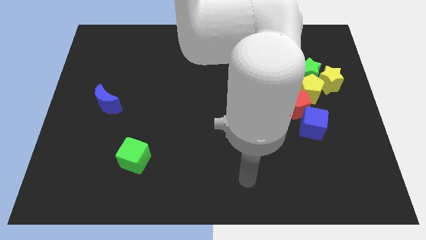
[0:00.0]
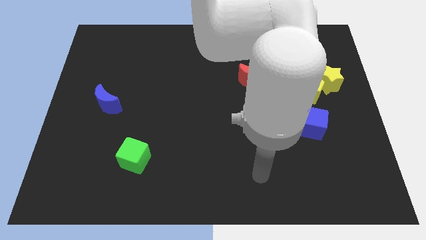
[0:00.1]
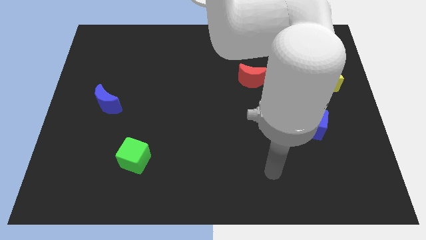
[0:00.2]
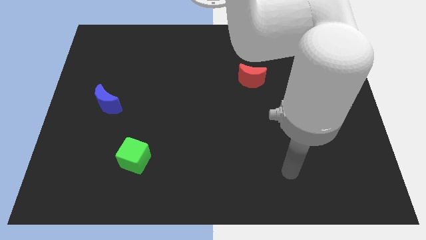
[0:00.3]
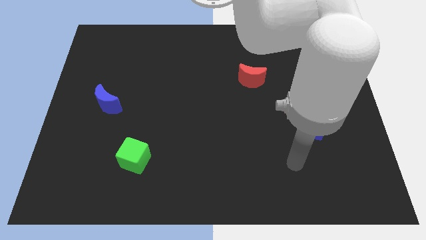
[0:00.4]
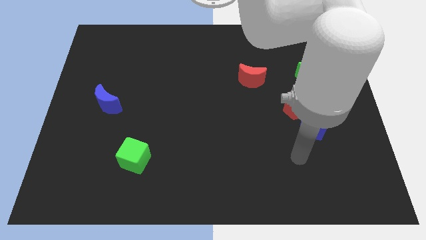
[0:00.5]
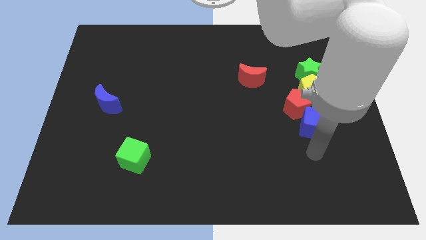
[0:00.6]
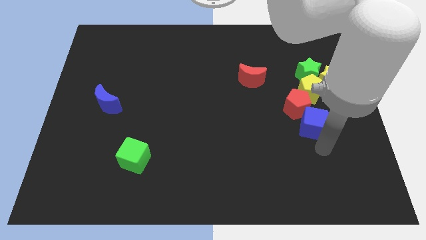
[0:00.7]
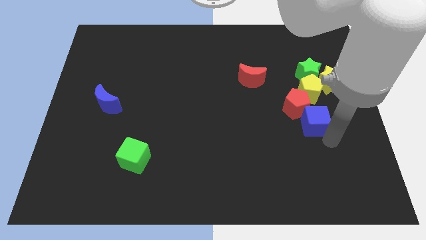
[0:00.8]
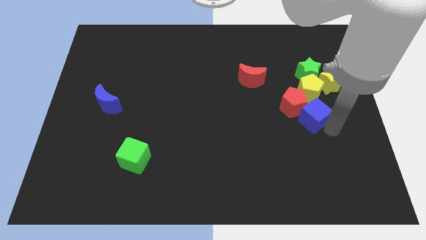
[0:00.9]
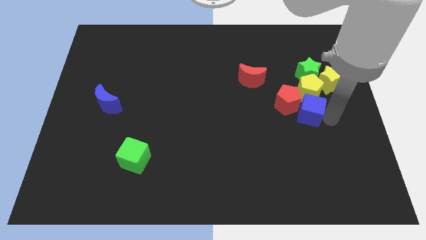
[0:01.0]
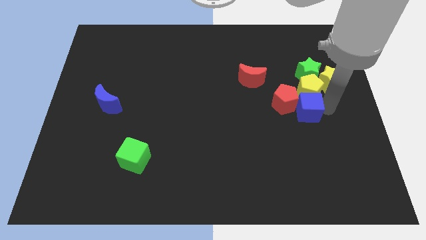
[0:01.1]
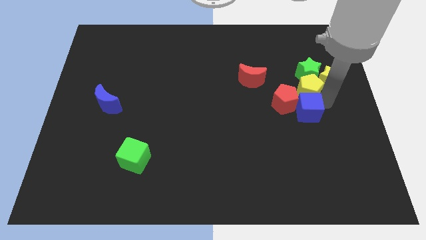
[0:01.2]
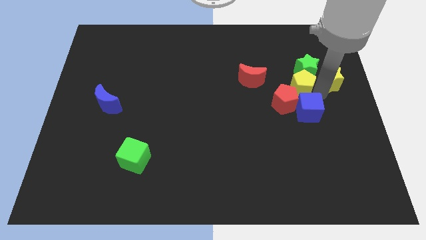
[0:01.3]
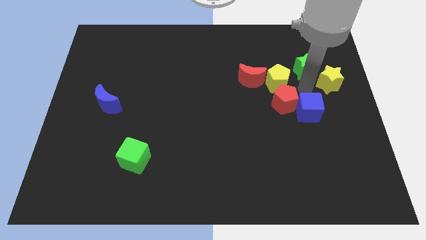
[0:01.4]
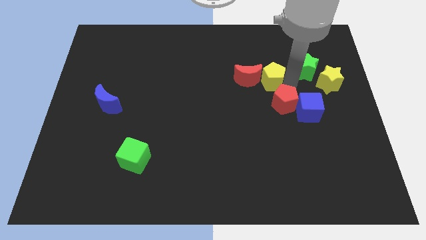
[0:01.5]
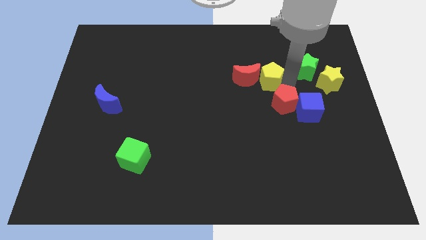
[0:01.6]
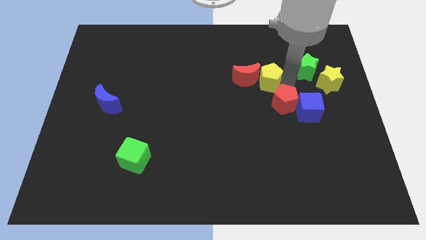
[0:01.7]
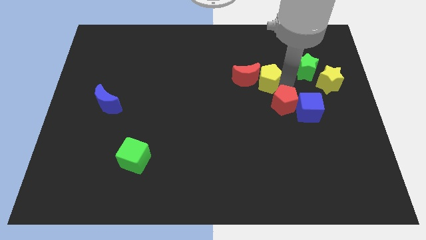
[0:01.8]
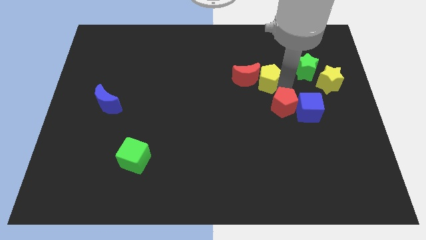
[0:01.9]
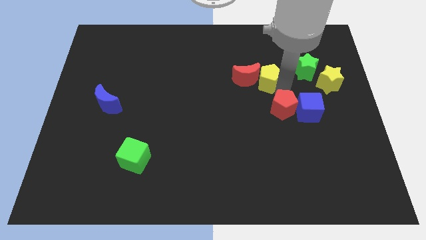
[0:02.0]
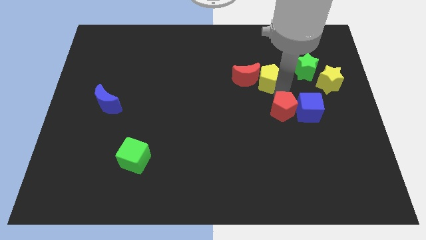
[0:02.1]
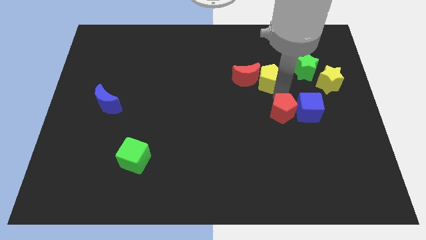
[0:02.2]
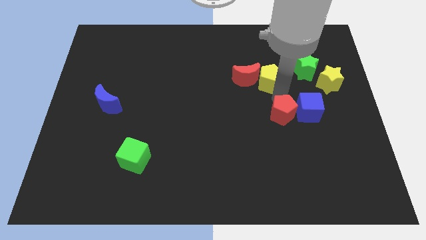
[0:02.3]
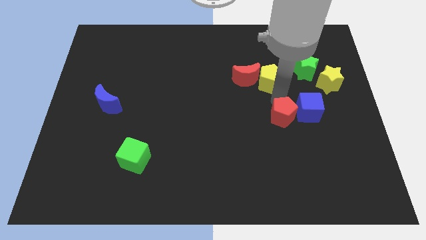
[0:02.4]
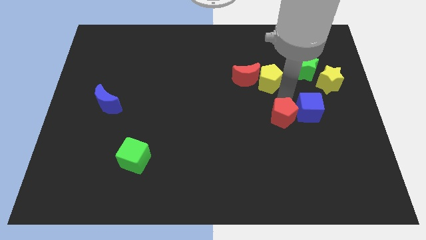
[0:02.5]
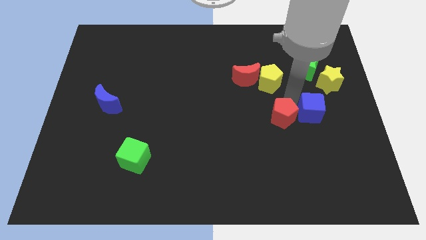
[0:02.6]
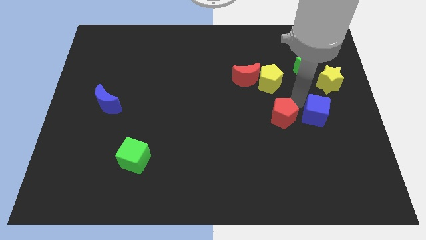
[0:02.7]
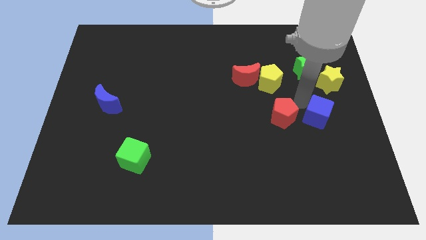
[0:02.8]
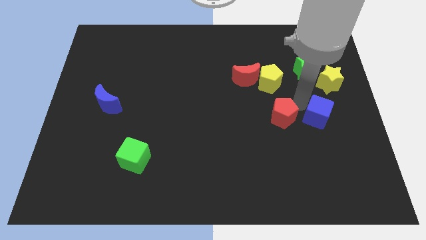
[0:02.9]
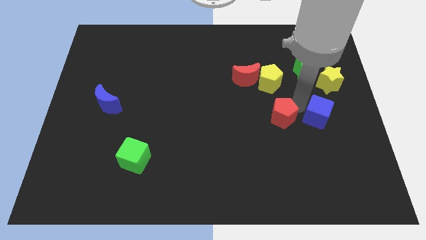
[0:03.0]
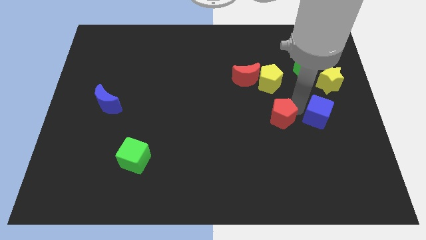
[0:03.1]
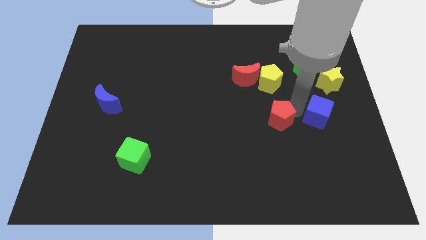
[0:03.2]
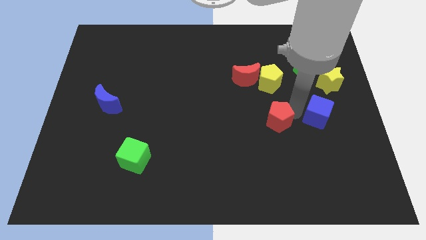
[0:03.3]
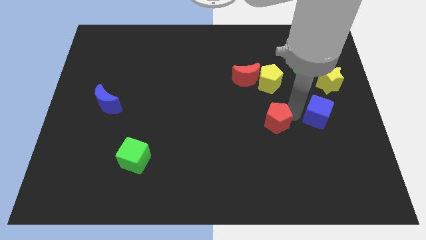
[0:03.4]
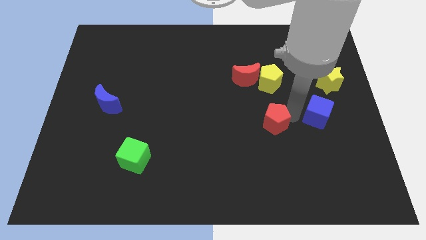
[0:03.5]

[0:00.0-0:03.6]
slide the red pentagon somewhat downwards and to the left

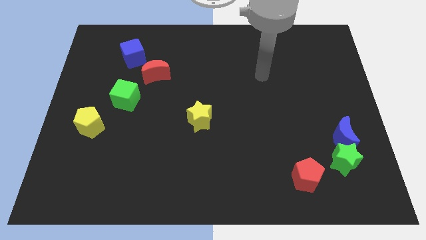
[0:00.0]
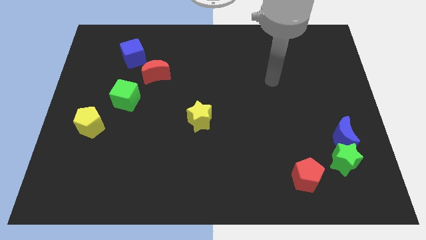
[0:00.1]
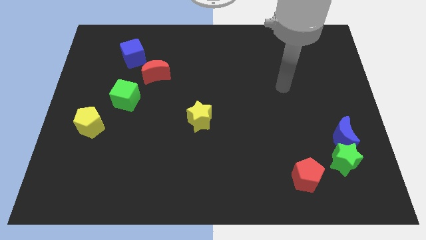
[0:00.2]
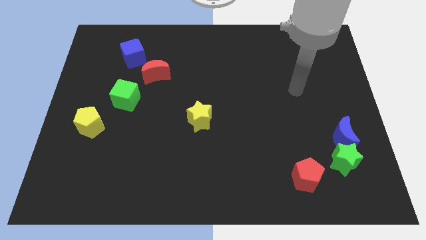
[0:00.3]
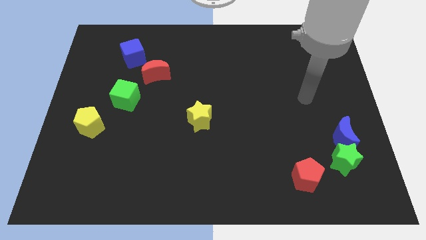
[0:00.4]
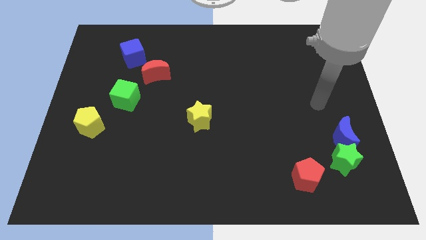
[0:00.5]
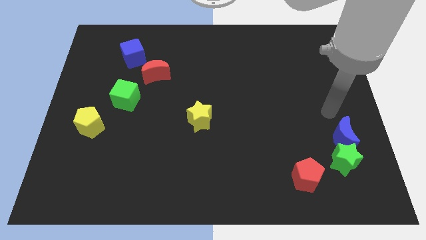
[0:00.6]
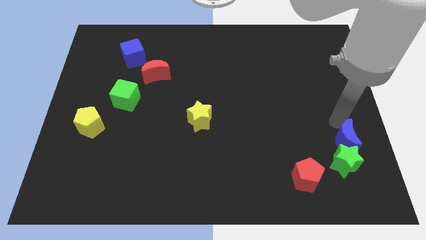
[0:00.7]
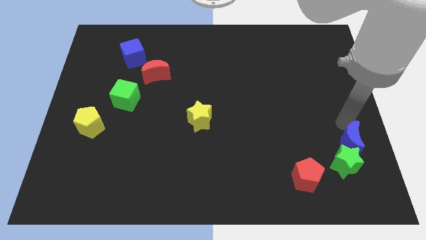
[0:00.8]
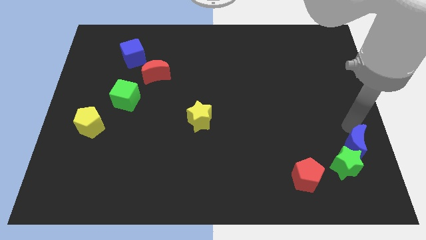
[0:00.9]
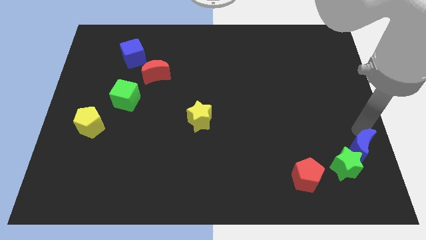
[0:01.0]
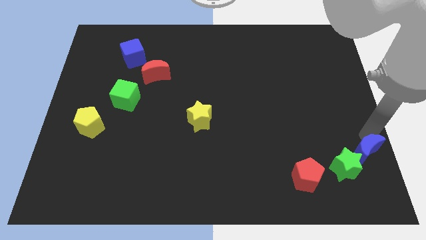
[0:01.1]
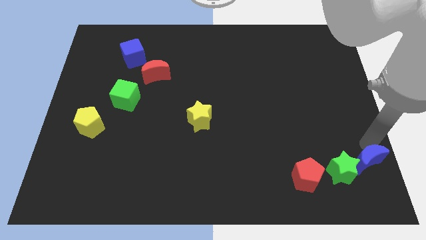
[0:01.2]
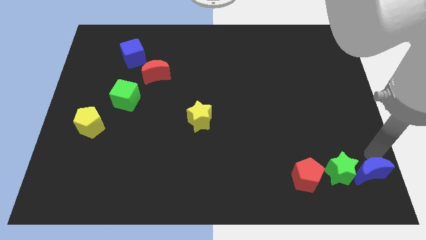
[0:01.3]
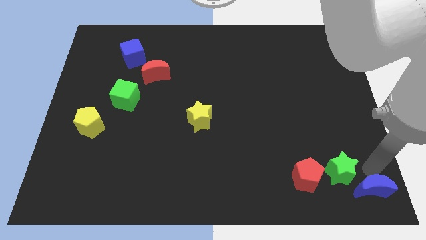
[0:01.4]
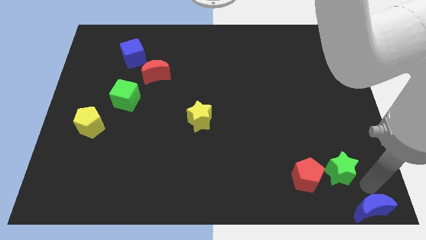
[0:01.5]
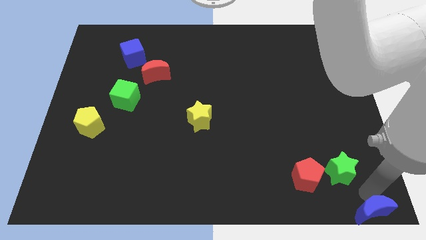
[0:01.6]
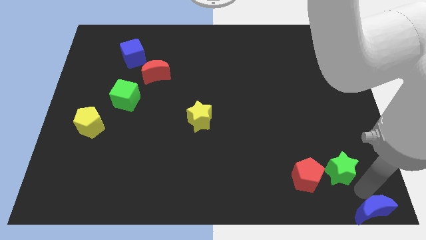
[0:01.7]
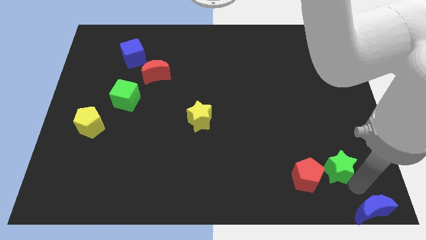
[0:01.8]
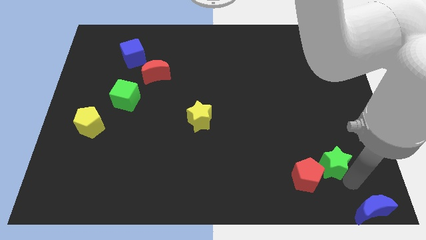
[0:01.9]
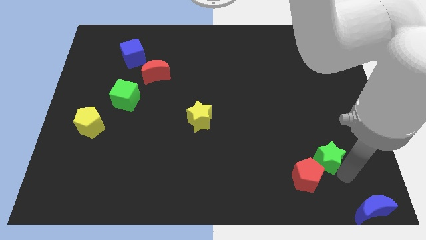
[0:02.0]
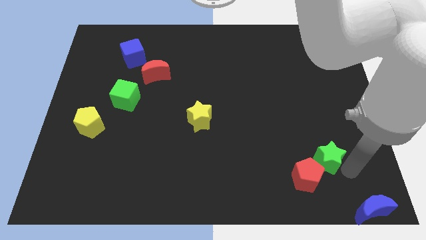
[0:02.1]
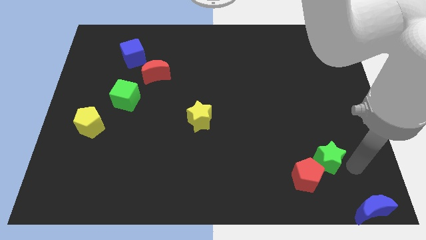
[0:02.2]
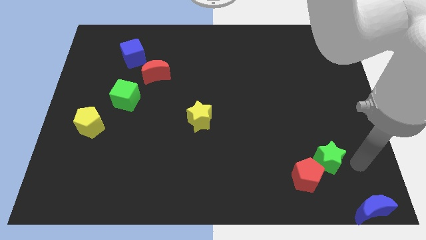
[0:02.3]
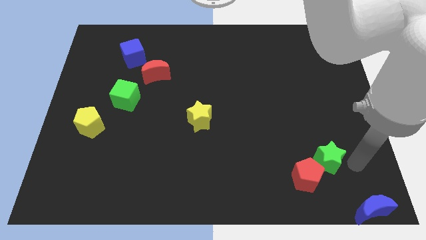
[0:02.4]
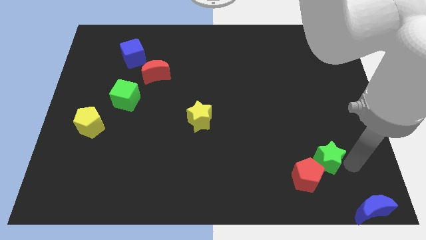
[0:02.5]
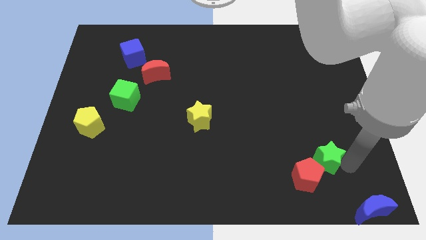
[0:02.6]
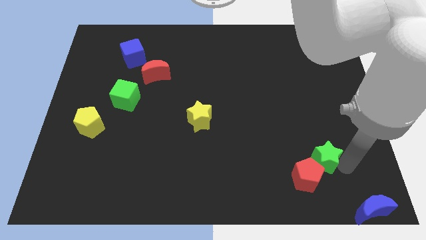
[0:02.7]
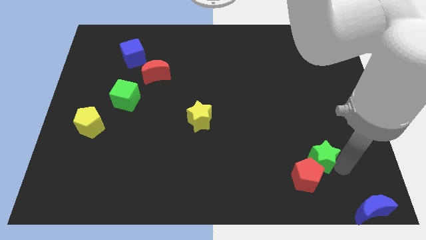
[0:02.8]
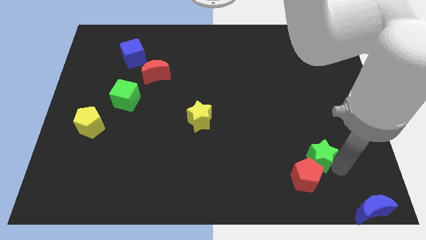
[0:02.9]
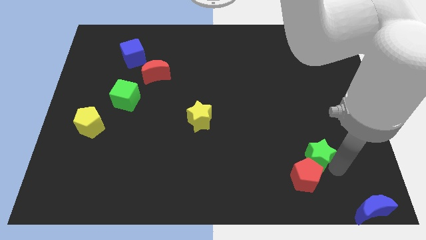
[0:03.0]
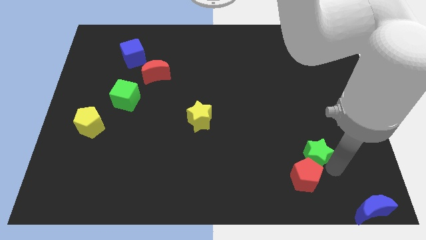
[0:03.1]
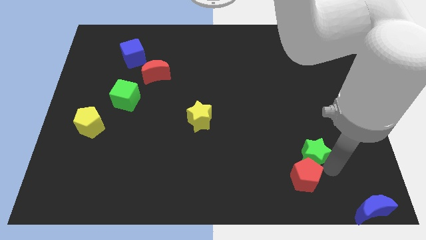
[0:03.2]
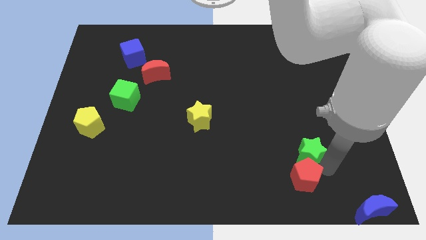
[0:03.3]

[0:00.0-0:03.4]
slide the green star a little bit to the left

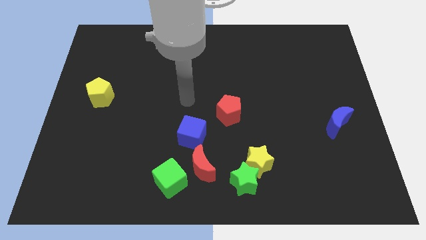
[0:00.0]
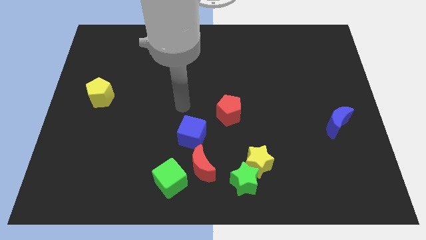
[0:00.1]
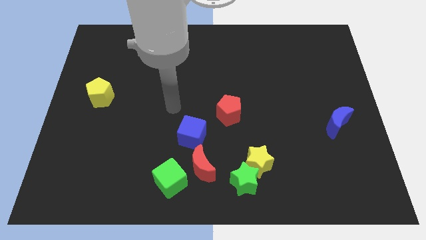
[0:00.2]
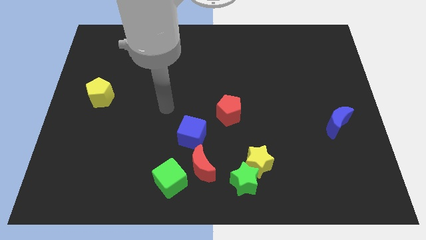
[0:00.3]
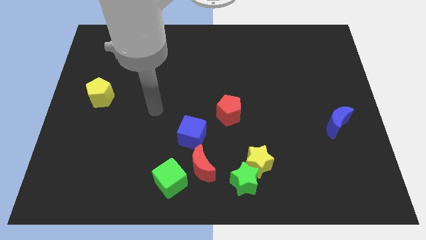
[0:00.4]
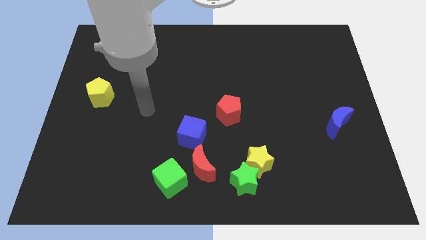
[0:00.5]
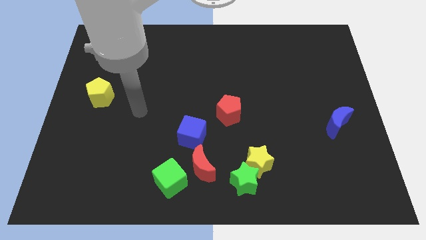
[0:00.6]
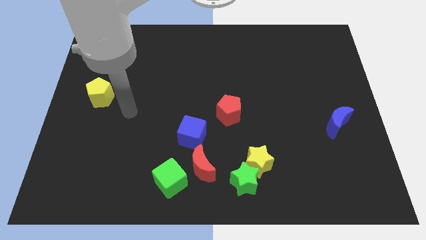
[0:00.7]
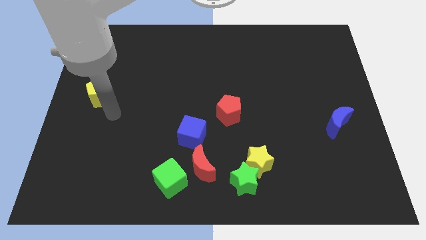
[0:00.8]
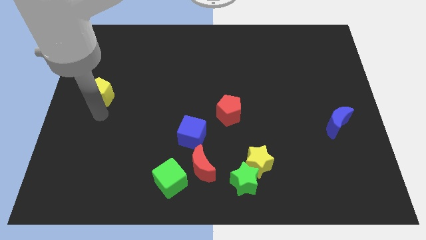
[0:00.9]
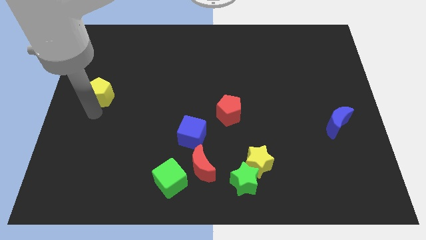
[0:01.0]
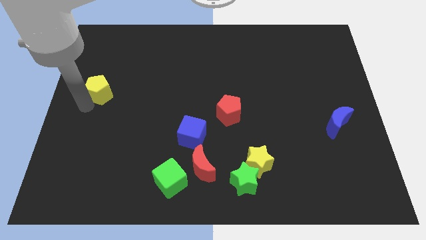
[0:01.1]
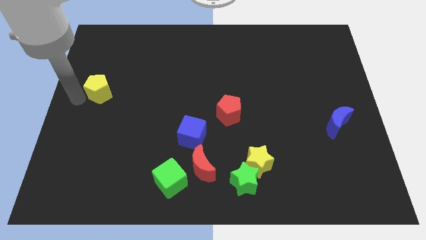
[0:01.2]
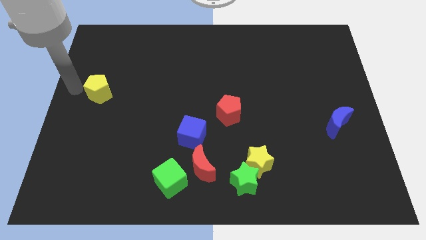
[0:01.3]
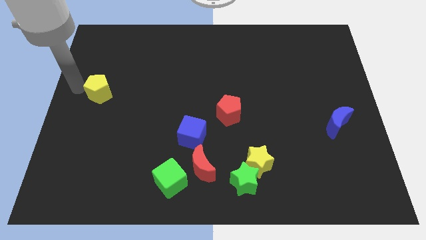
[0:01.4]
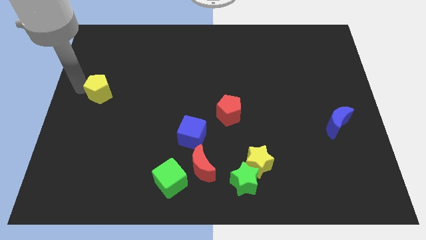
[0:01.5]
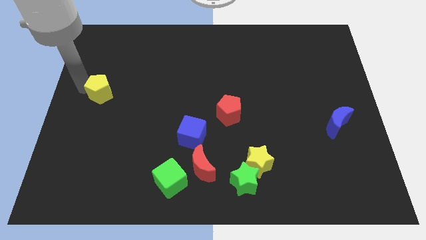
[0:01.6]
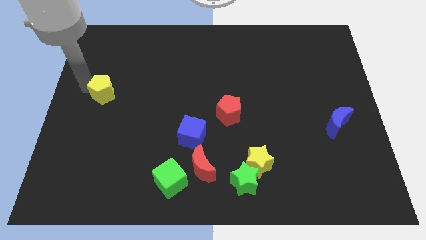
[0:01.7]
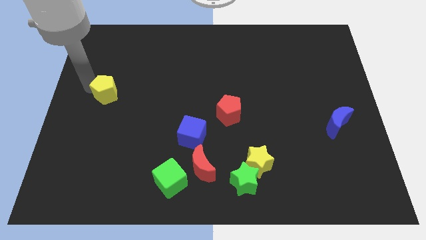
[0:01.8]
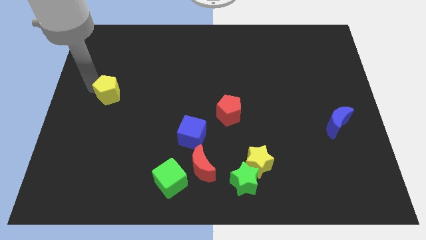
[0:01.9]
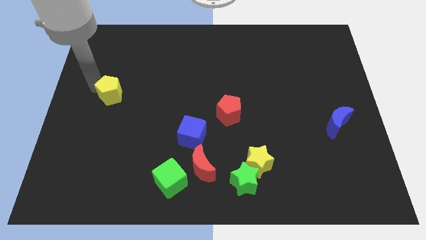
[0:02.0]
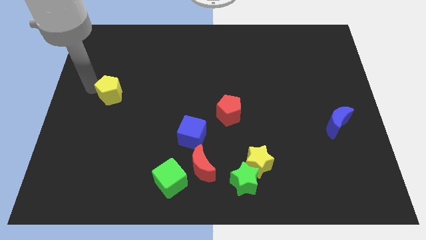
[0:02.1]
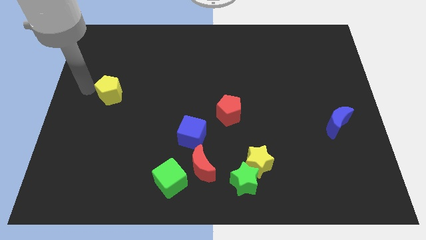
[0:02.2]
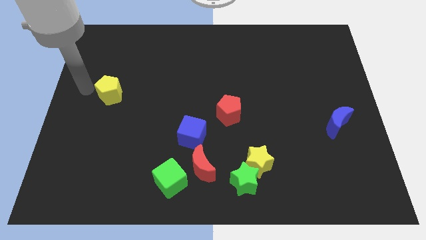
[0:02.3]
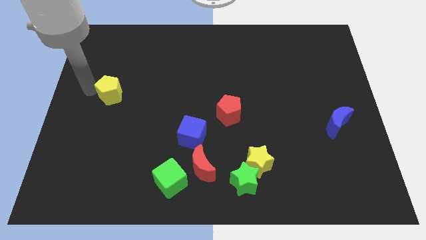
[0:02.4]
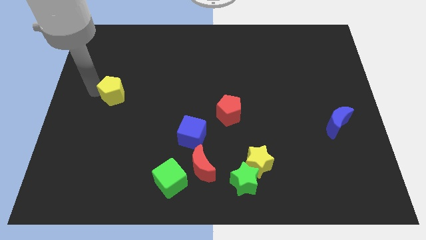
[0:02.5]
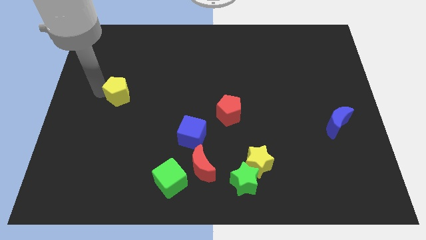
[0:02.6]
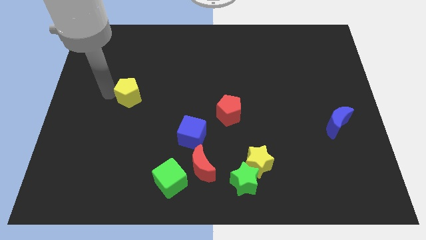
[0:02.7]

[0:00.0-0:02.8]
push the yellow pentagon right a little
